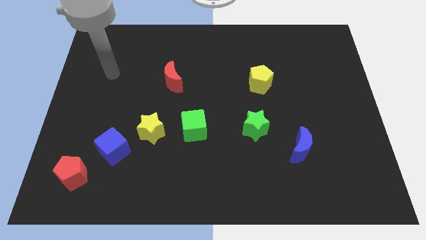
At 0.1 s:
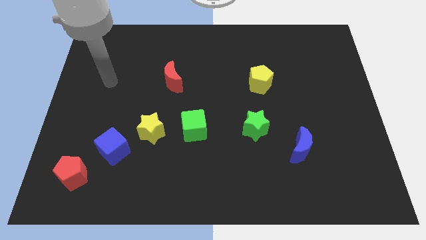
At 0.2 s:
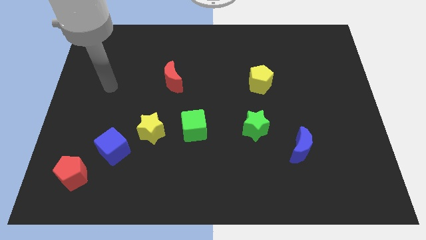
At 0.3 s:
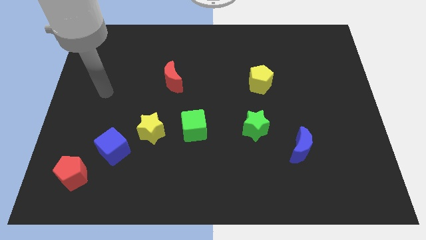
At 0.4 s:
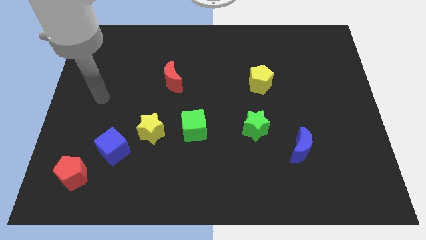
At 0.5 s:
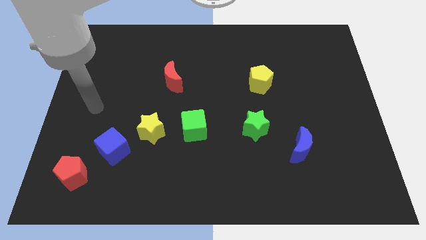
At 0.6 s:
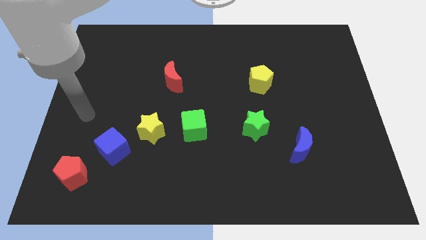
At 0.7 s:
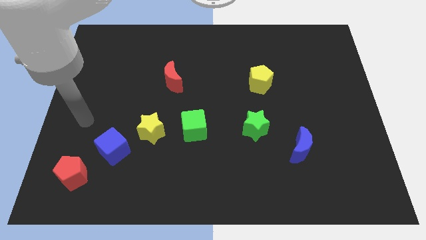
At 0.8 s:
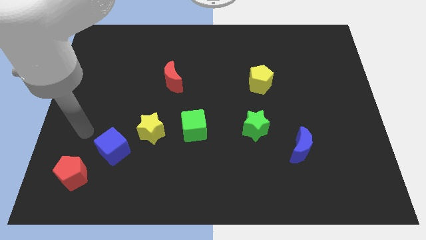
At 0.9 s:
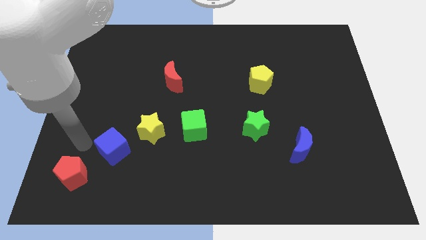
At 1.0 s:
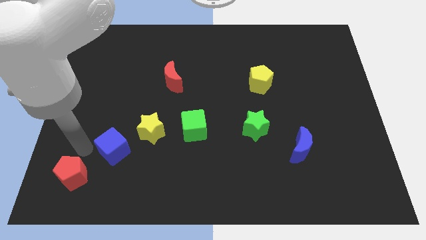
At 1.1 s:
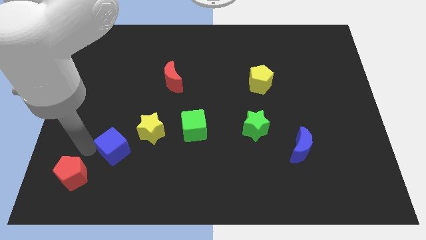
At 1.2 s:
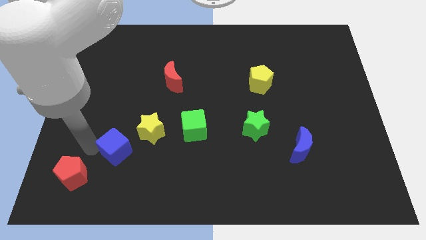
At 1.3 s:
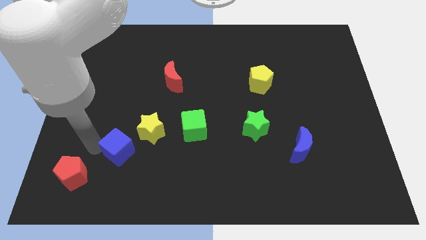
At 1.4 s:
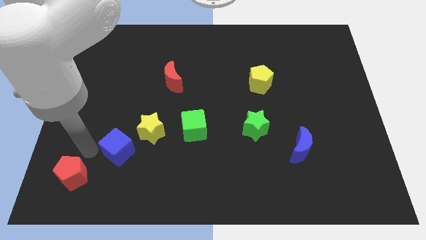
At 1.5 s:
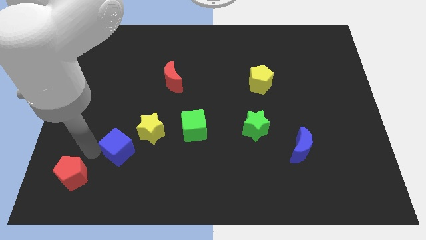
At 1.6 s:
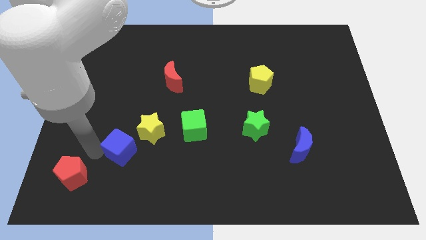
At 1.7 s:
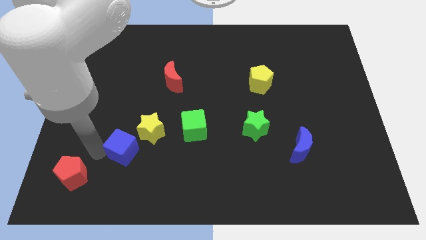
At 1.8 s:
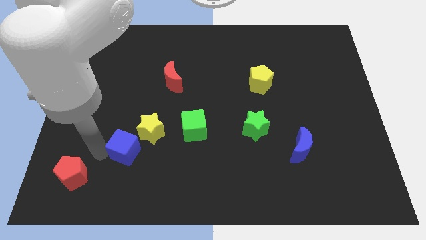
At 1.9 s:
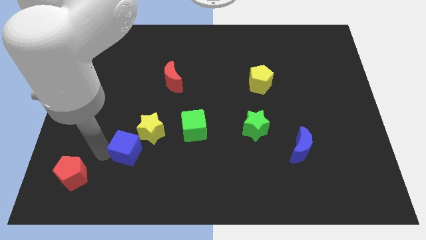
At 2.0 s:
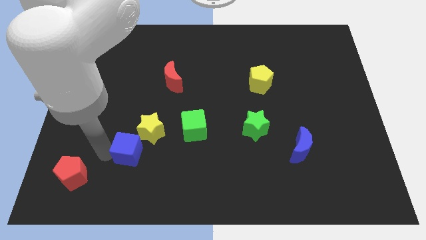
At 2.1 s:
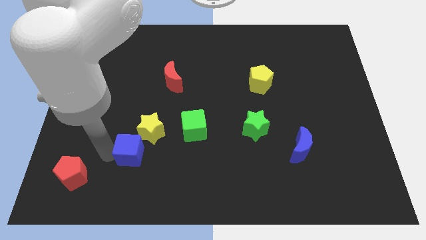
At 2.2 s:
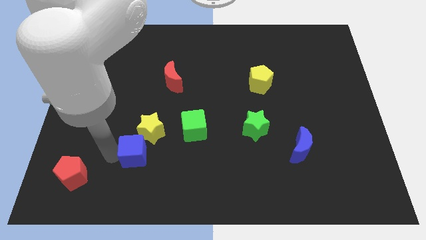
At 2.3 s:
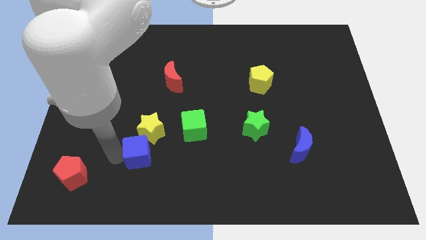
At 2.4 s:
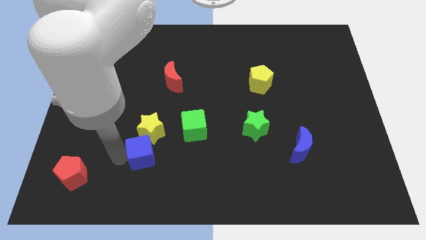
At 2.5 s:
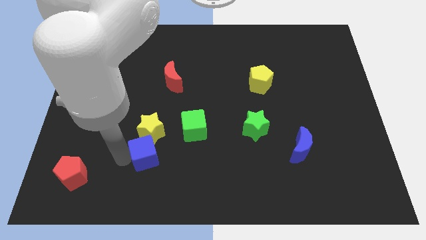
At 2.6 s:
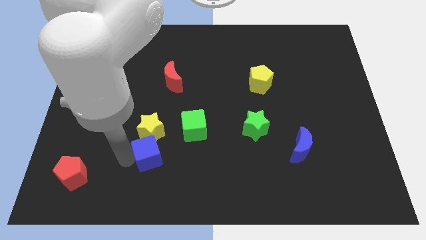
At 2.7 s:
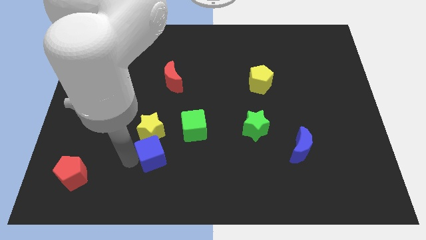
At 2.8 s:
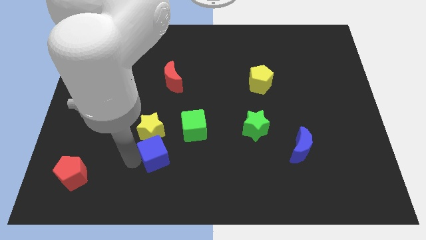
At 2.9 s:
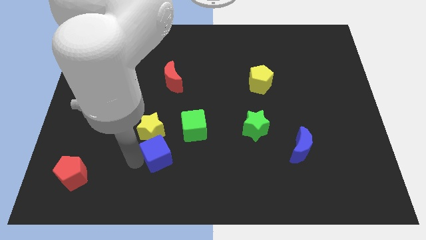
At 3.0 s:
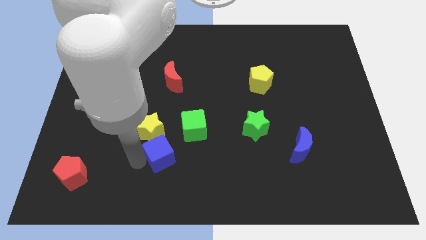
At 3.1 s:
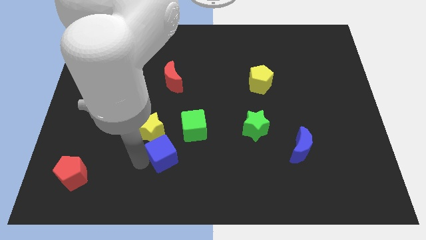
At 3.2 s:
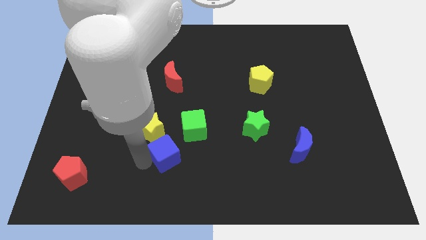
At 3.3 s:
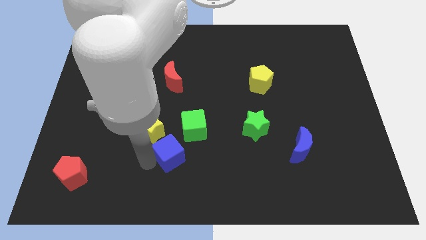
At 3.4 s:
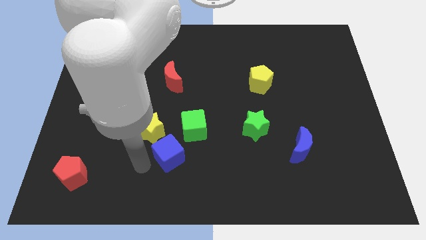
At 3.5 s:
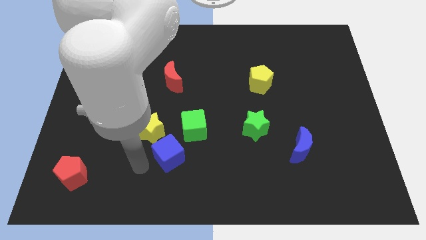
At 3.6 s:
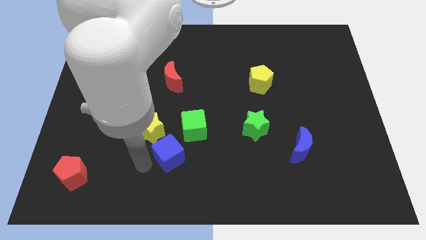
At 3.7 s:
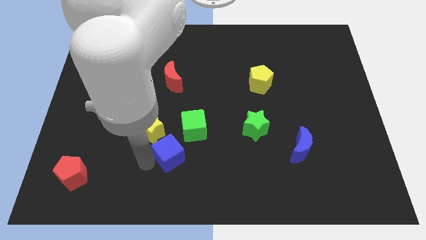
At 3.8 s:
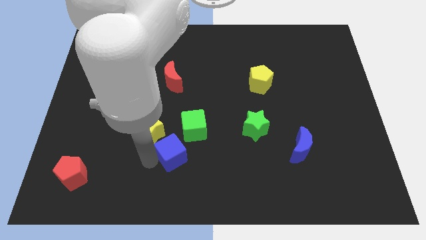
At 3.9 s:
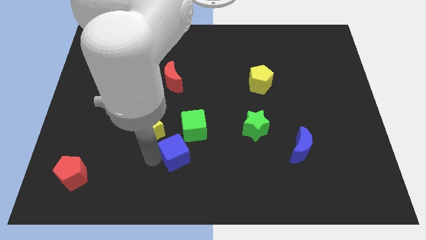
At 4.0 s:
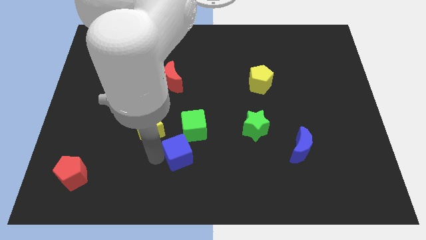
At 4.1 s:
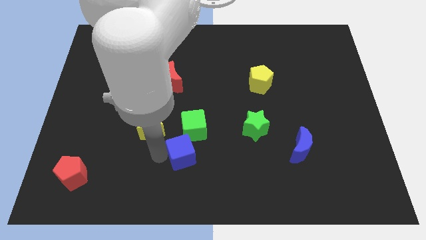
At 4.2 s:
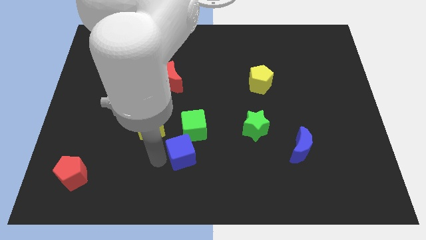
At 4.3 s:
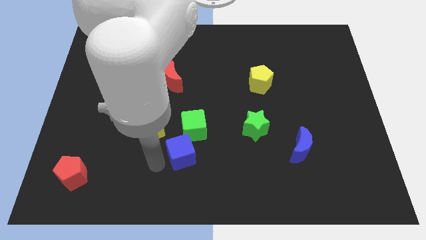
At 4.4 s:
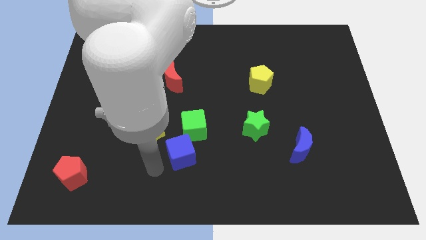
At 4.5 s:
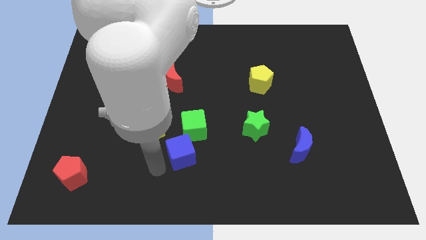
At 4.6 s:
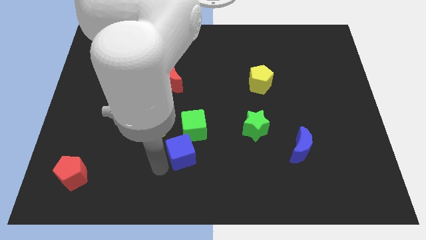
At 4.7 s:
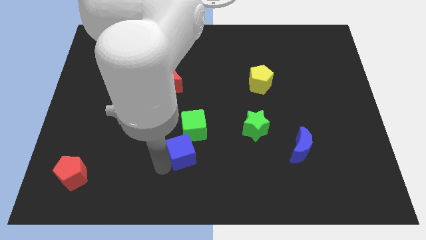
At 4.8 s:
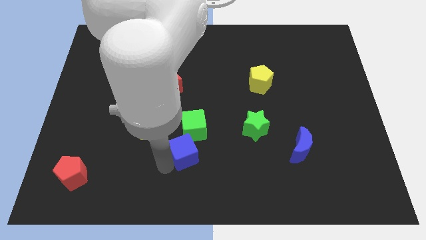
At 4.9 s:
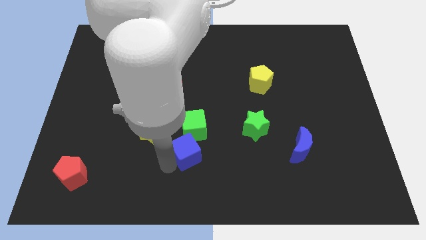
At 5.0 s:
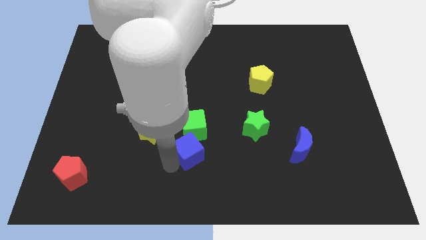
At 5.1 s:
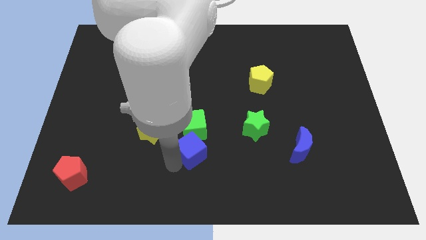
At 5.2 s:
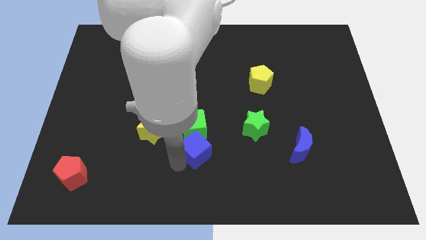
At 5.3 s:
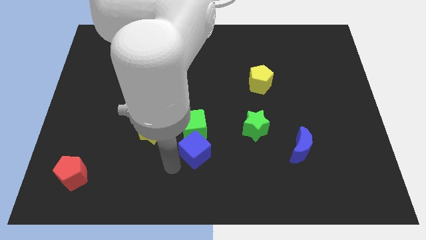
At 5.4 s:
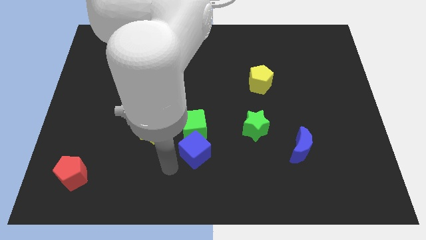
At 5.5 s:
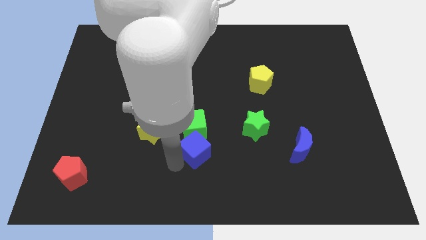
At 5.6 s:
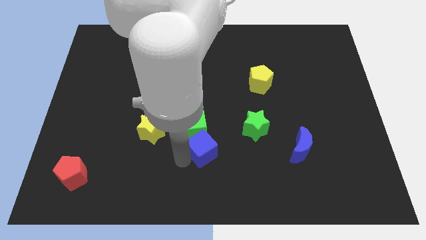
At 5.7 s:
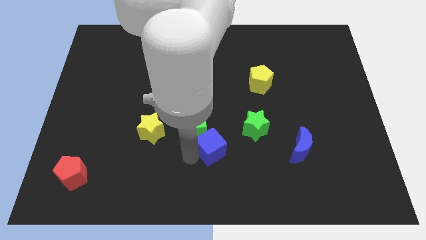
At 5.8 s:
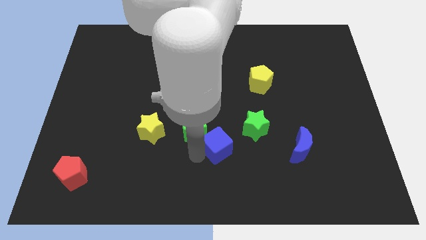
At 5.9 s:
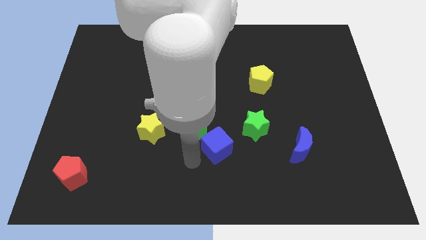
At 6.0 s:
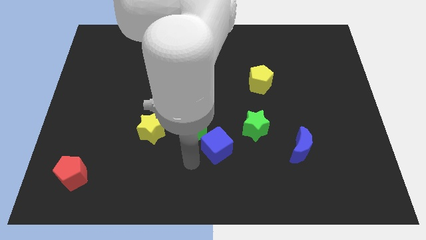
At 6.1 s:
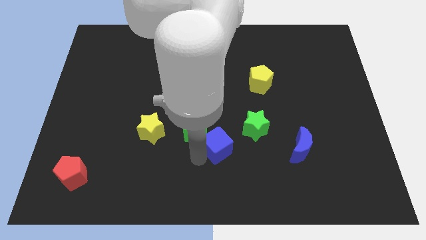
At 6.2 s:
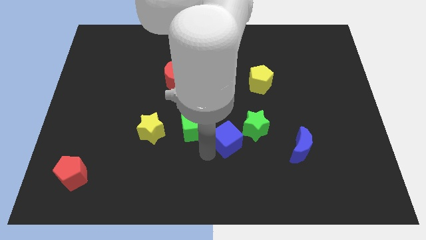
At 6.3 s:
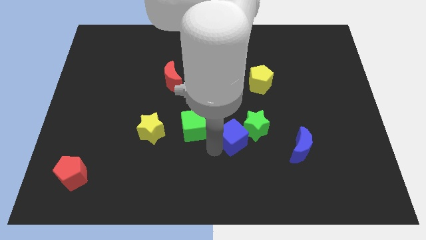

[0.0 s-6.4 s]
move the blue cube close to the green star

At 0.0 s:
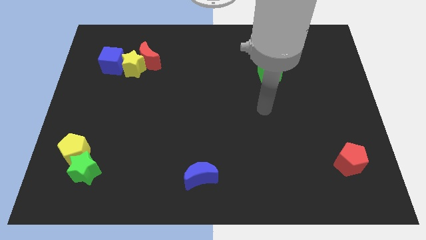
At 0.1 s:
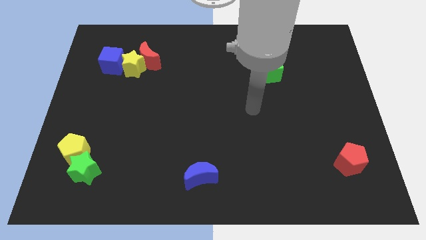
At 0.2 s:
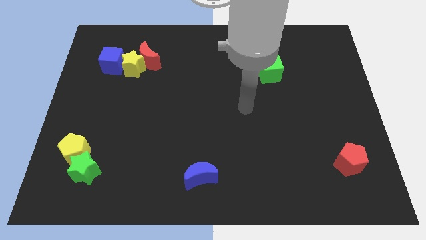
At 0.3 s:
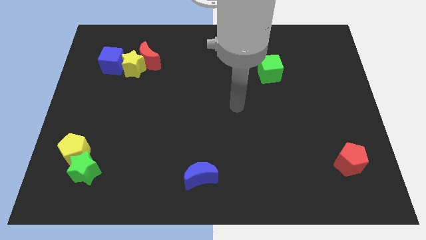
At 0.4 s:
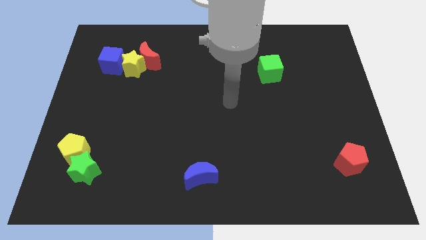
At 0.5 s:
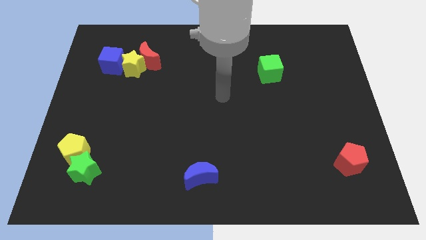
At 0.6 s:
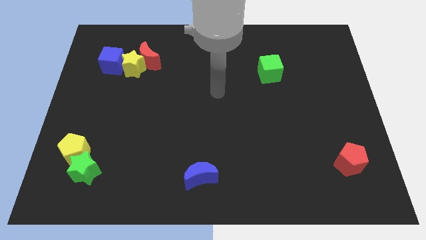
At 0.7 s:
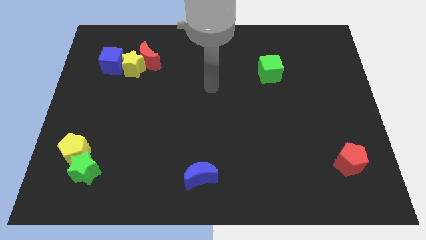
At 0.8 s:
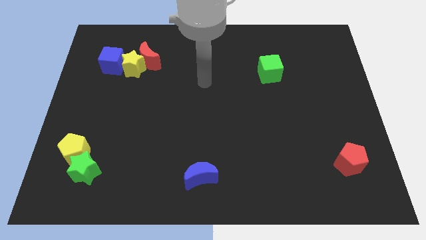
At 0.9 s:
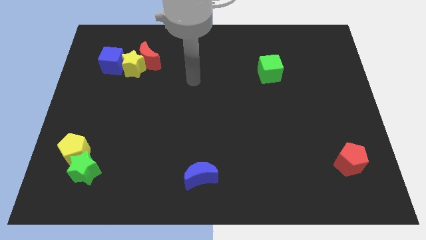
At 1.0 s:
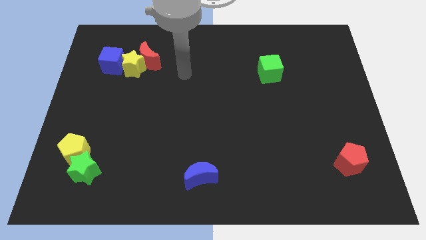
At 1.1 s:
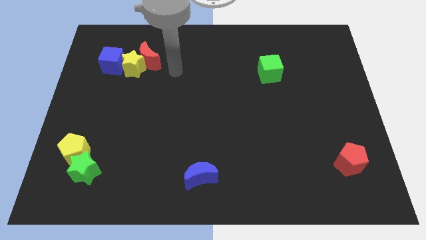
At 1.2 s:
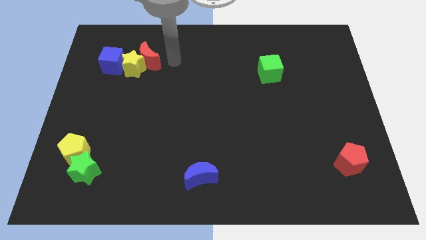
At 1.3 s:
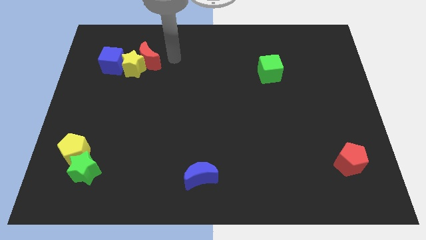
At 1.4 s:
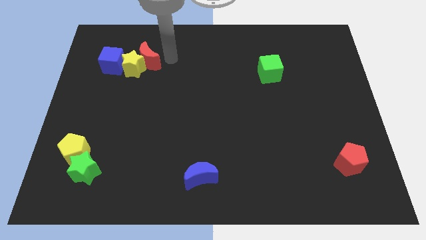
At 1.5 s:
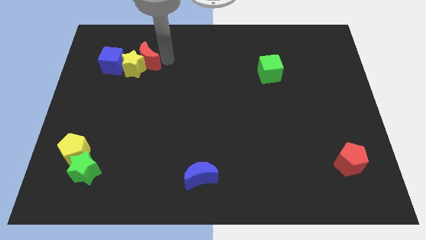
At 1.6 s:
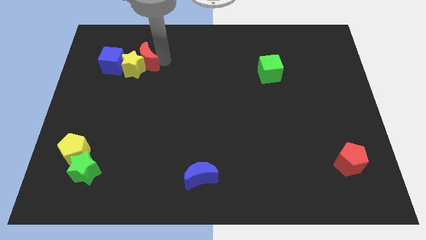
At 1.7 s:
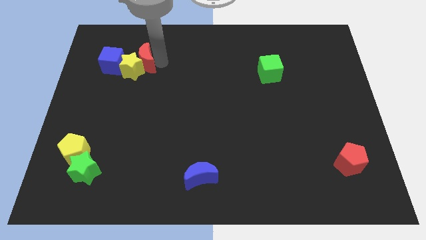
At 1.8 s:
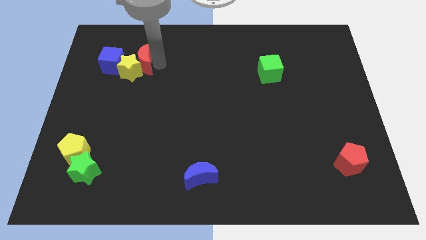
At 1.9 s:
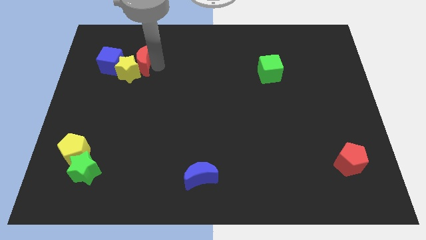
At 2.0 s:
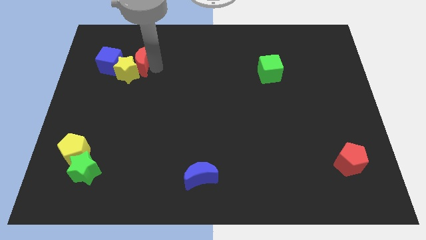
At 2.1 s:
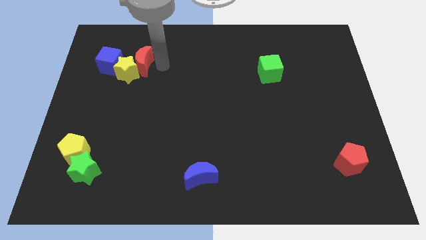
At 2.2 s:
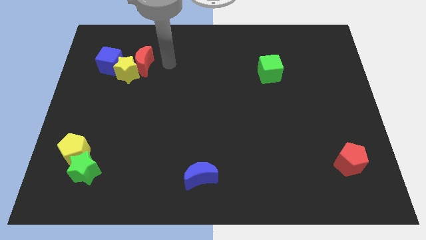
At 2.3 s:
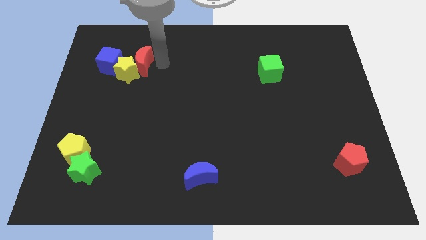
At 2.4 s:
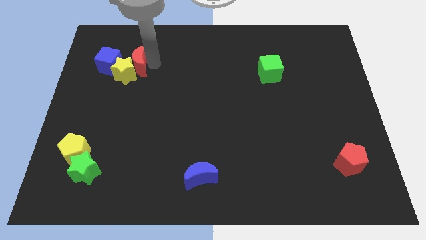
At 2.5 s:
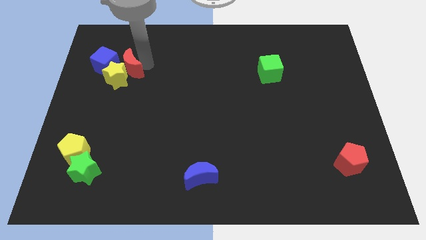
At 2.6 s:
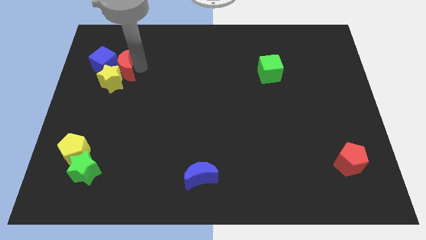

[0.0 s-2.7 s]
slide the red moon to the blue cube
